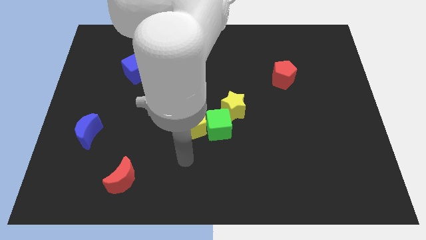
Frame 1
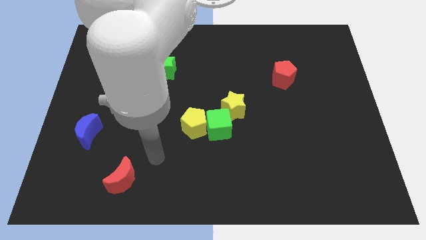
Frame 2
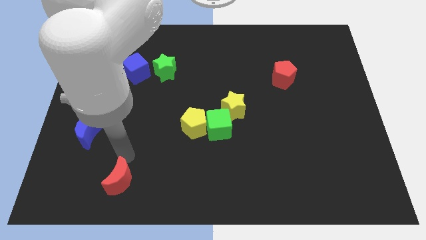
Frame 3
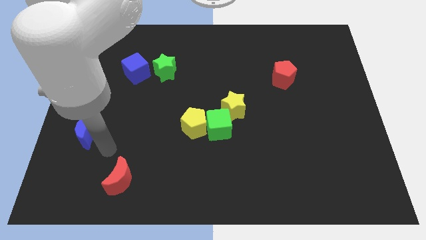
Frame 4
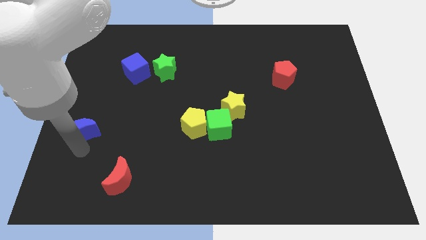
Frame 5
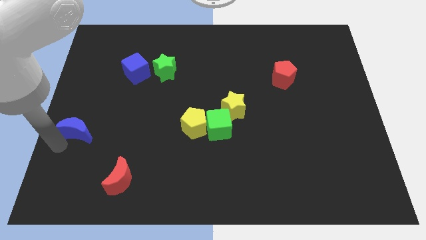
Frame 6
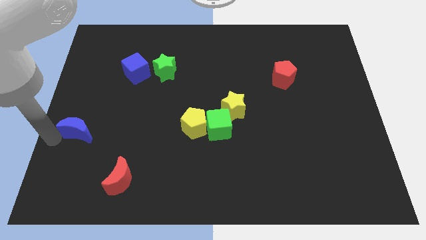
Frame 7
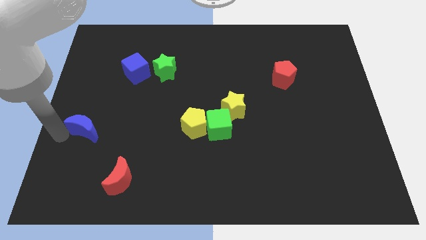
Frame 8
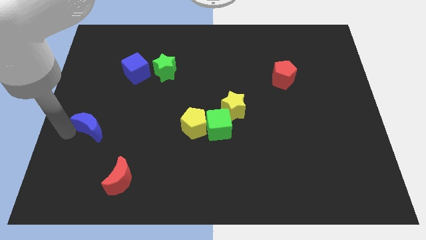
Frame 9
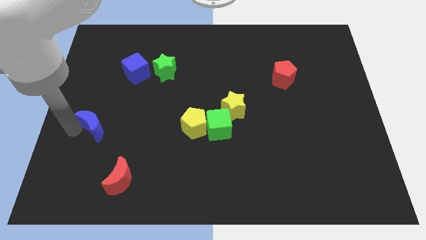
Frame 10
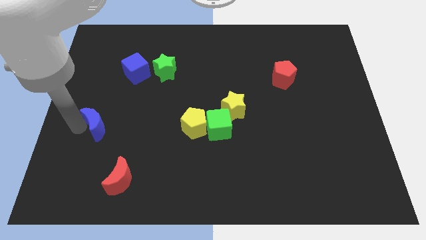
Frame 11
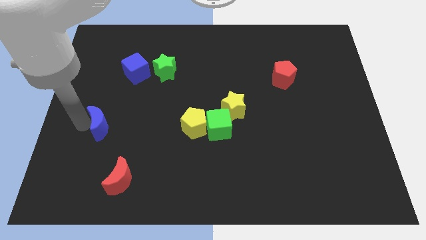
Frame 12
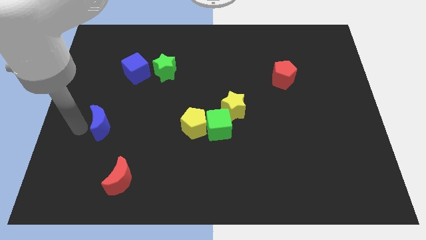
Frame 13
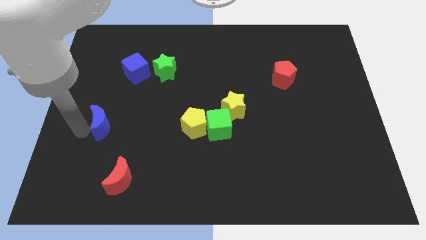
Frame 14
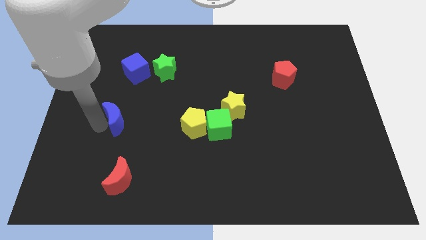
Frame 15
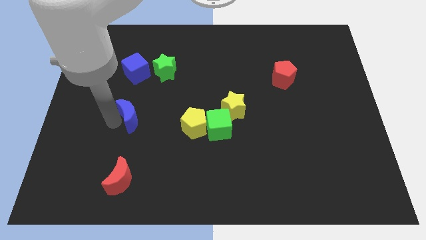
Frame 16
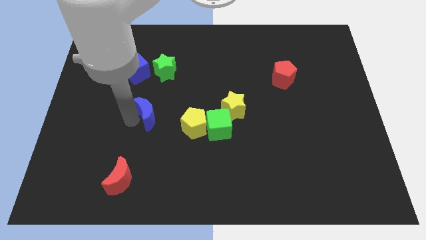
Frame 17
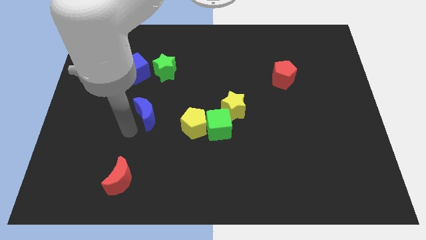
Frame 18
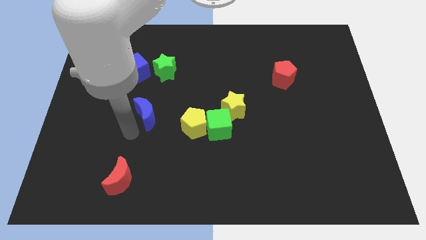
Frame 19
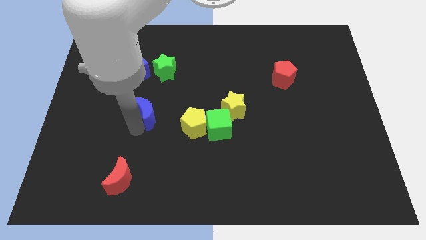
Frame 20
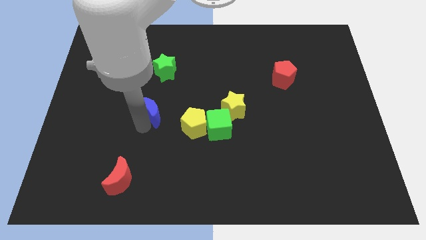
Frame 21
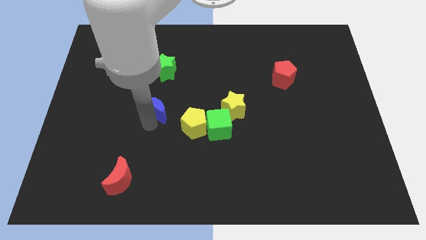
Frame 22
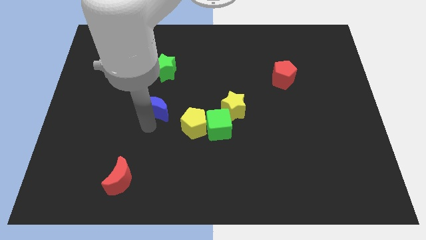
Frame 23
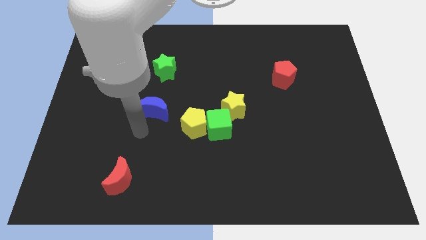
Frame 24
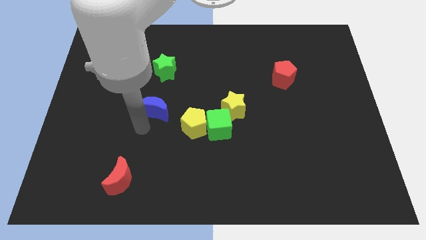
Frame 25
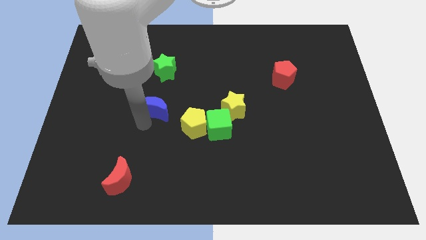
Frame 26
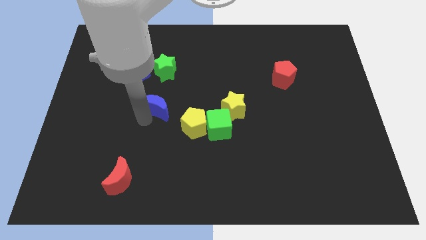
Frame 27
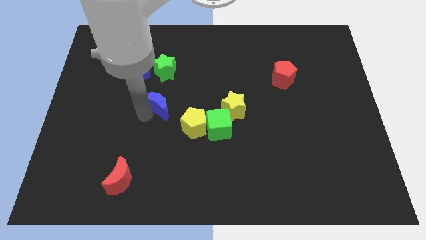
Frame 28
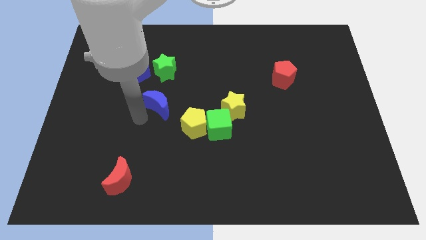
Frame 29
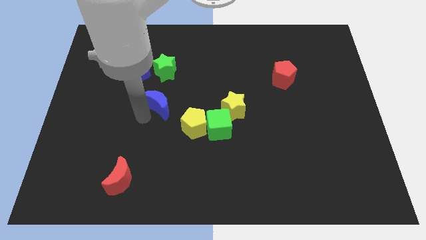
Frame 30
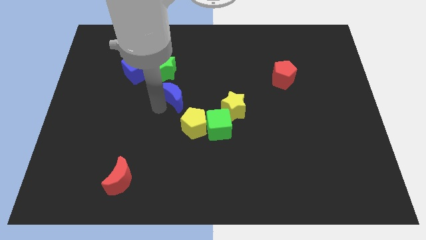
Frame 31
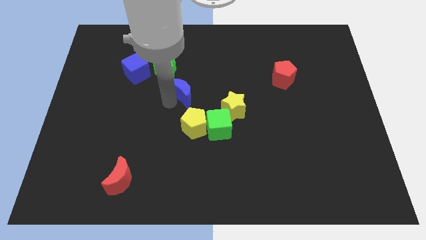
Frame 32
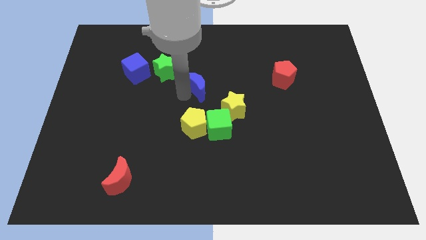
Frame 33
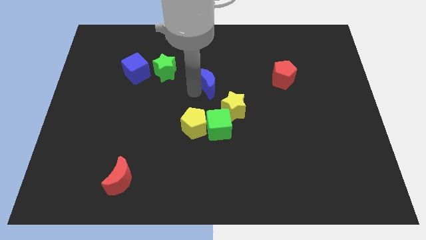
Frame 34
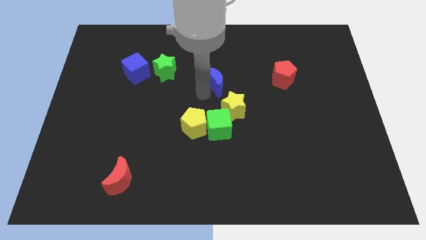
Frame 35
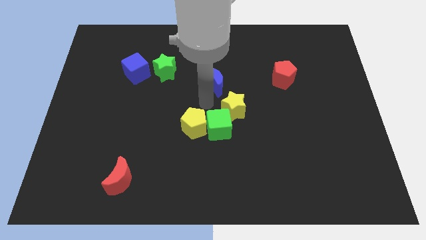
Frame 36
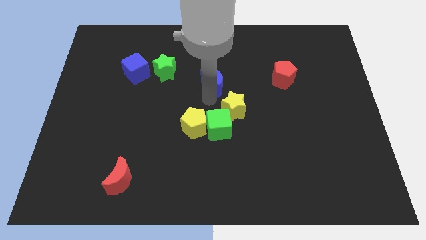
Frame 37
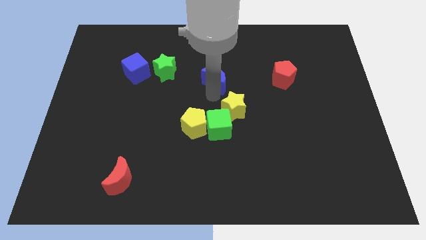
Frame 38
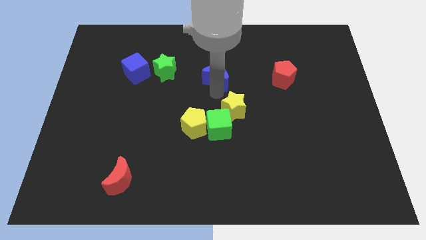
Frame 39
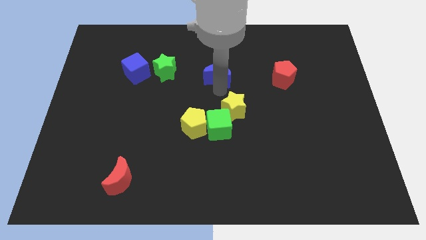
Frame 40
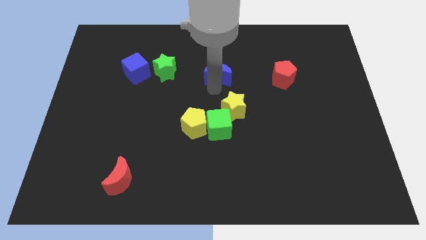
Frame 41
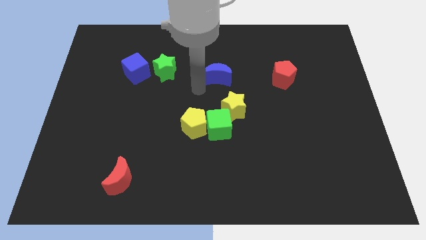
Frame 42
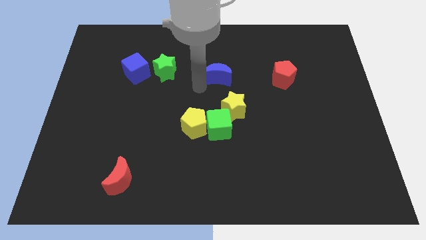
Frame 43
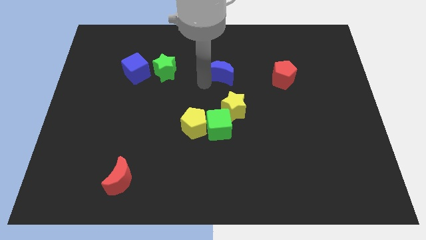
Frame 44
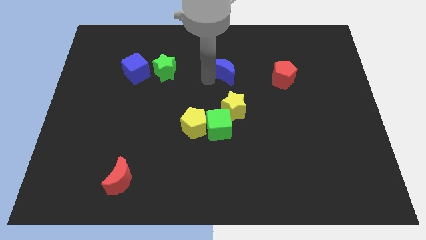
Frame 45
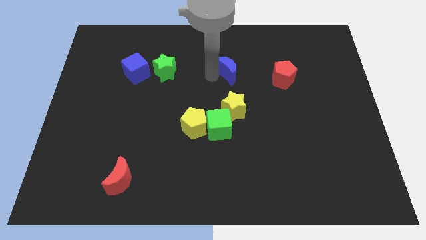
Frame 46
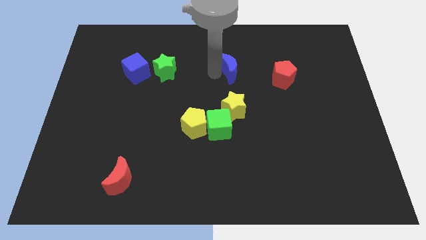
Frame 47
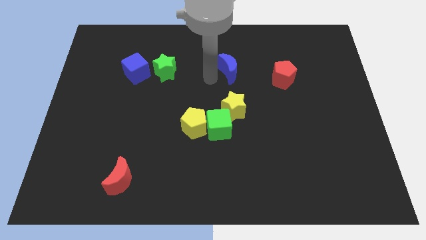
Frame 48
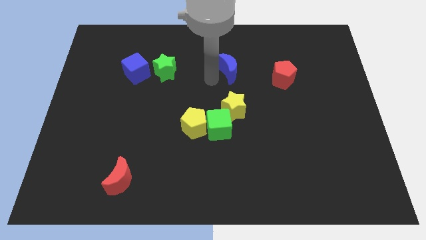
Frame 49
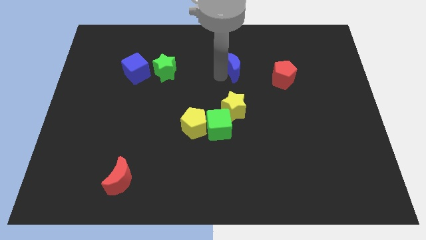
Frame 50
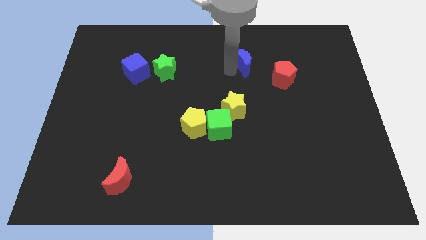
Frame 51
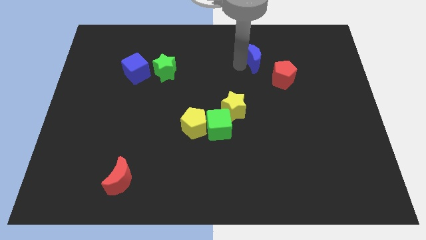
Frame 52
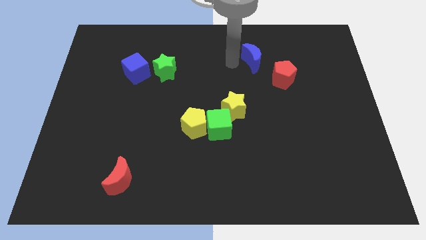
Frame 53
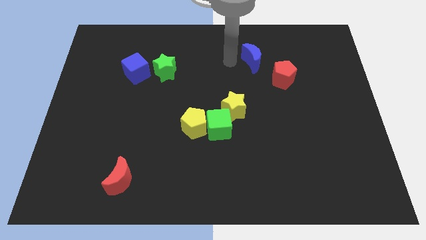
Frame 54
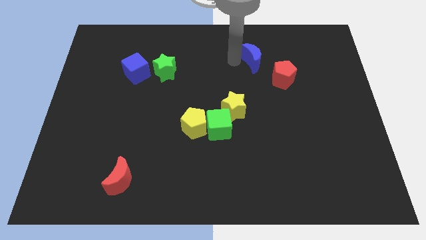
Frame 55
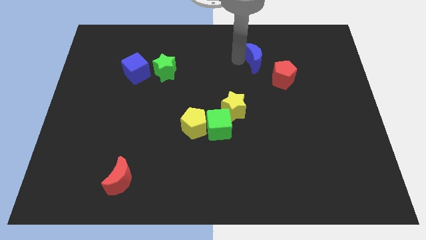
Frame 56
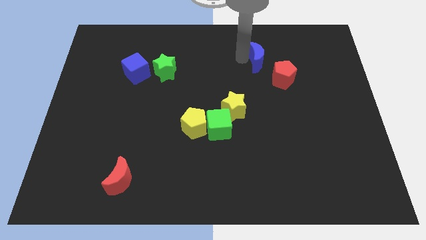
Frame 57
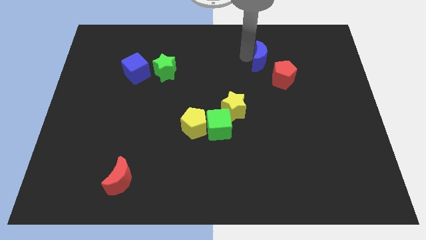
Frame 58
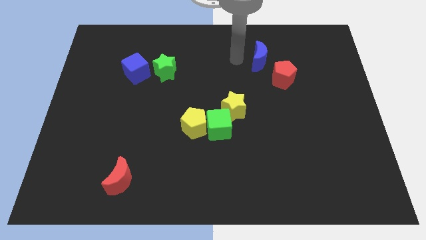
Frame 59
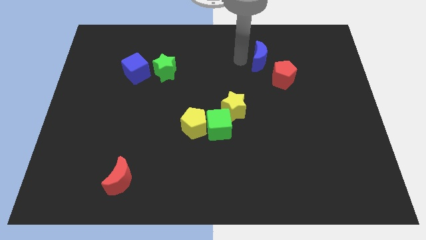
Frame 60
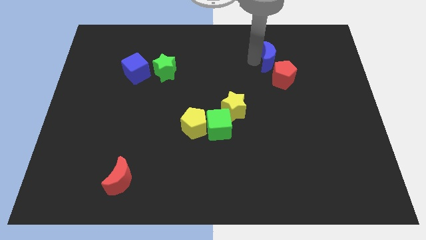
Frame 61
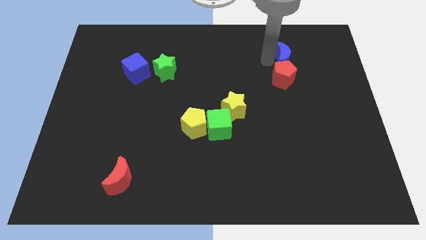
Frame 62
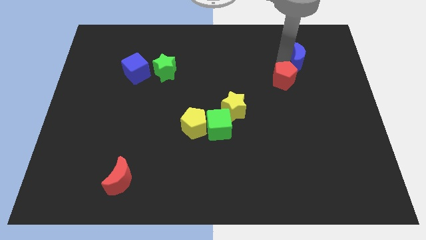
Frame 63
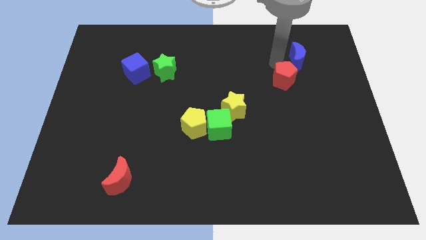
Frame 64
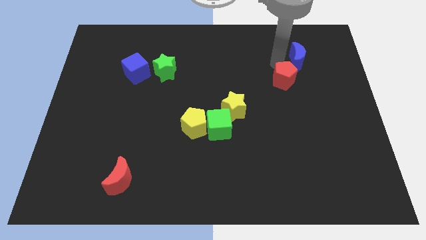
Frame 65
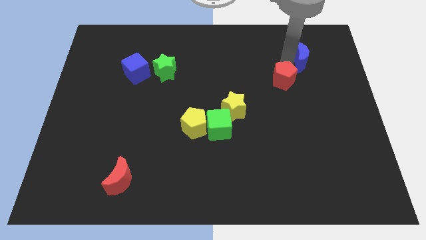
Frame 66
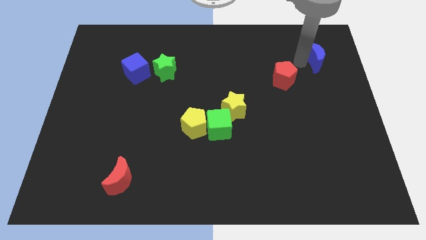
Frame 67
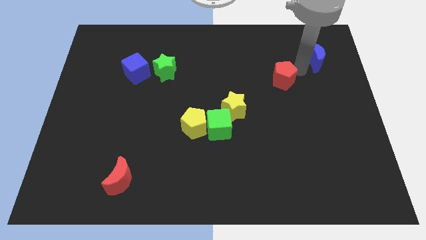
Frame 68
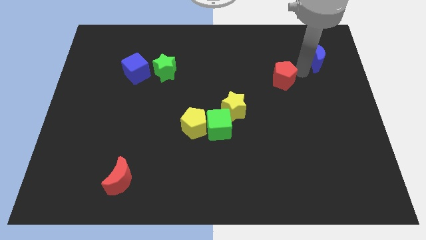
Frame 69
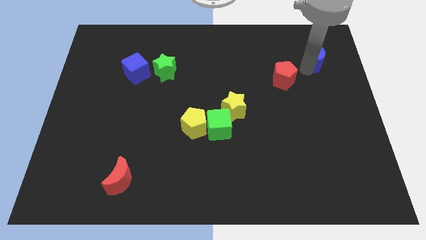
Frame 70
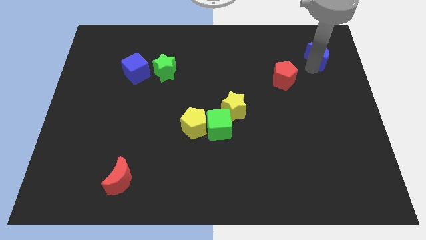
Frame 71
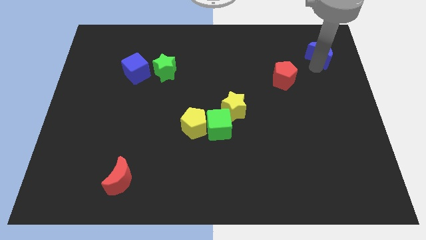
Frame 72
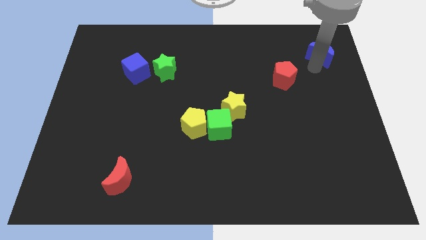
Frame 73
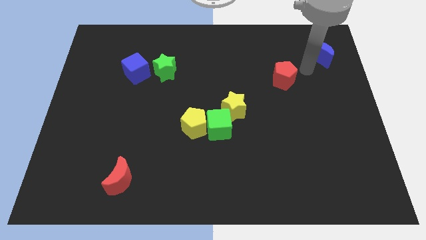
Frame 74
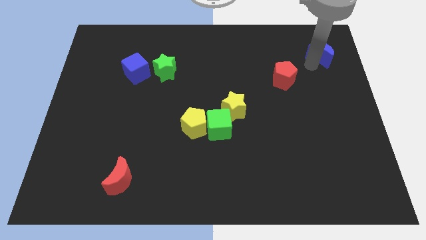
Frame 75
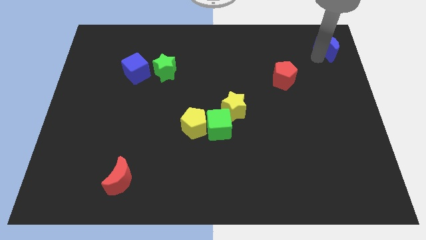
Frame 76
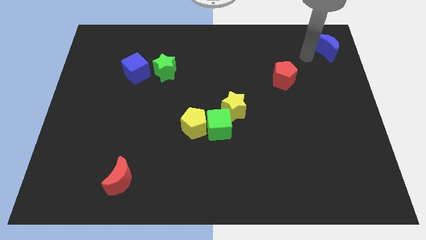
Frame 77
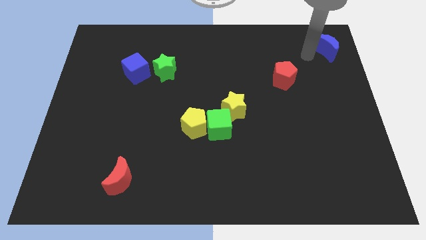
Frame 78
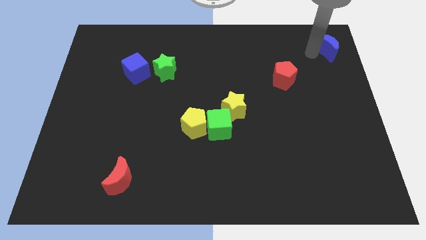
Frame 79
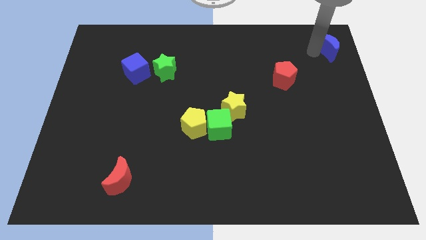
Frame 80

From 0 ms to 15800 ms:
slide the blue moon to the top right
